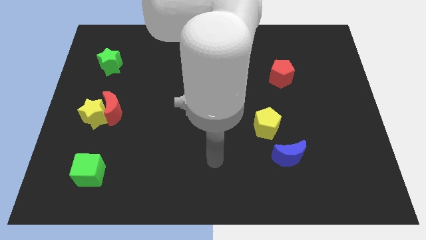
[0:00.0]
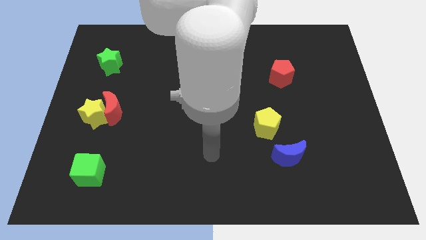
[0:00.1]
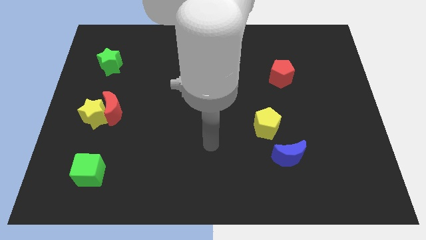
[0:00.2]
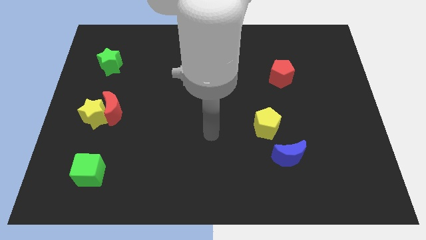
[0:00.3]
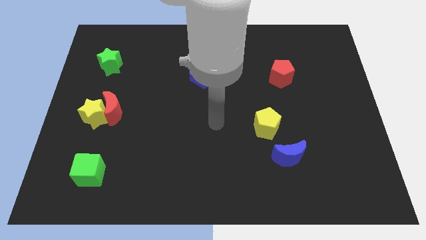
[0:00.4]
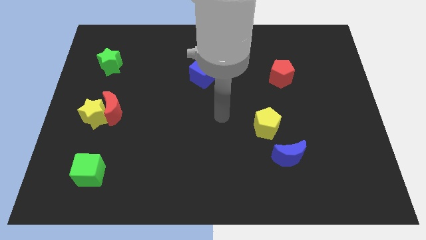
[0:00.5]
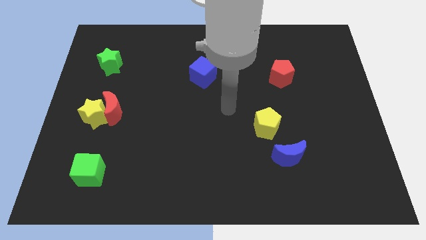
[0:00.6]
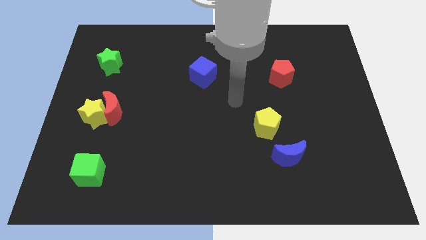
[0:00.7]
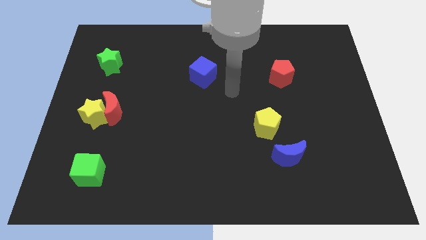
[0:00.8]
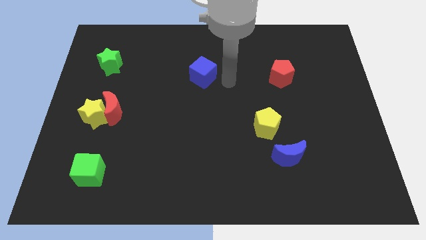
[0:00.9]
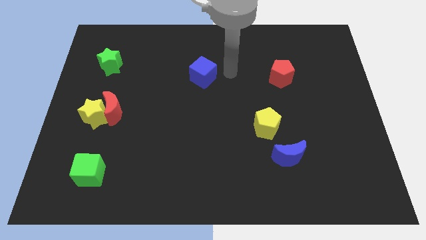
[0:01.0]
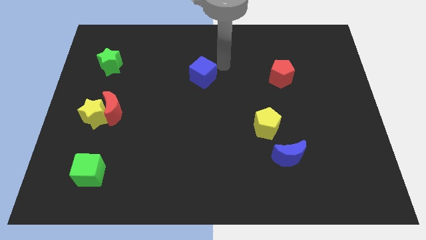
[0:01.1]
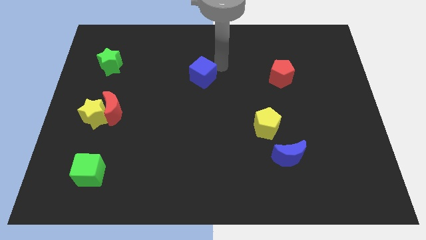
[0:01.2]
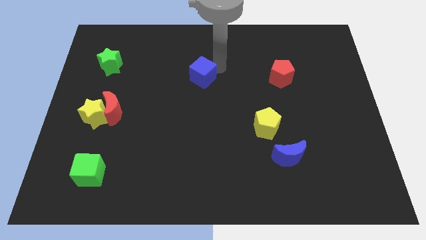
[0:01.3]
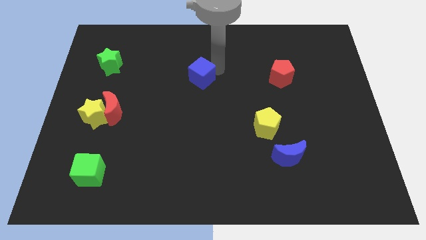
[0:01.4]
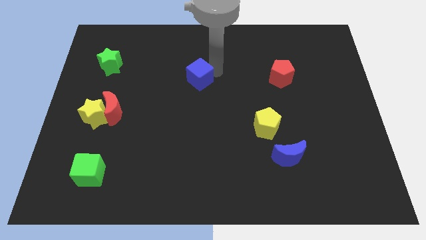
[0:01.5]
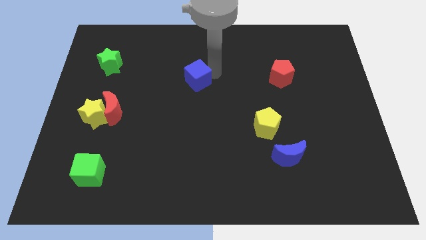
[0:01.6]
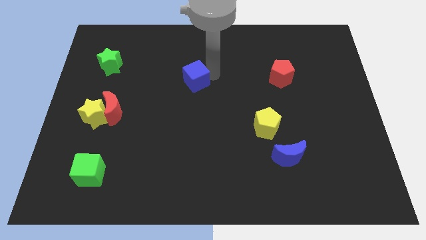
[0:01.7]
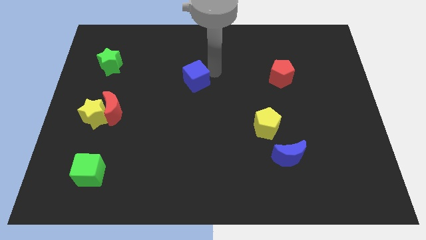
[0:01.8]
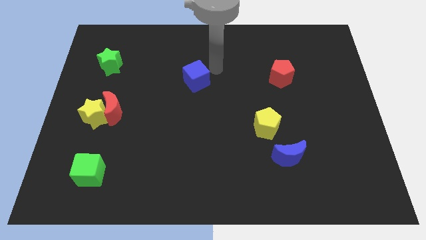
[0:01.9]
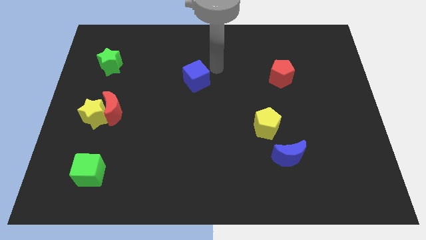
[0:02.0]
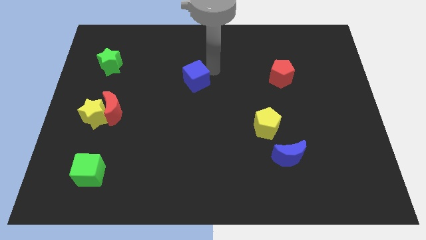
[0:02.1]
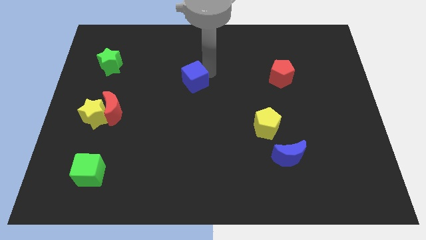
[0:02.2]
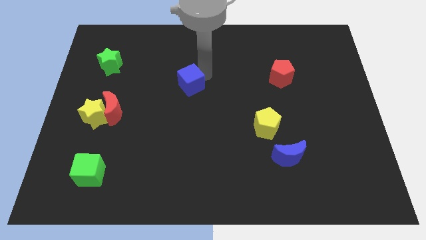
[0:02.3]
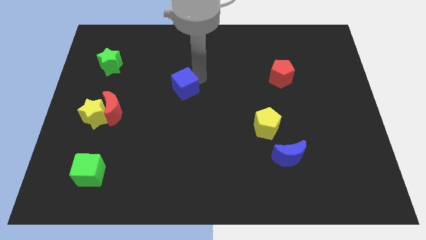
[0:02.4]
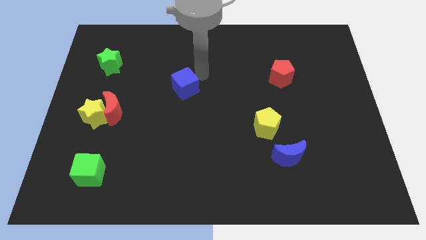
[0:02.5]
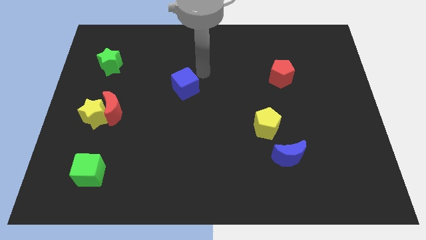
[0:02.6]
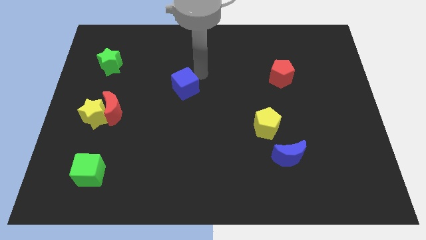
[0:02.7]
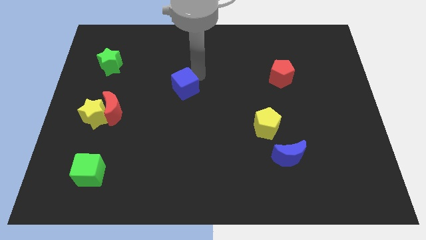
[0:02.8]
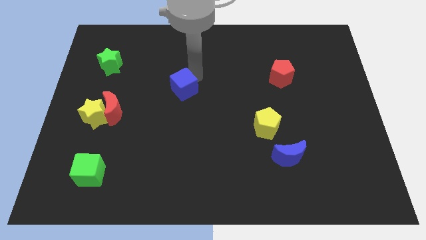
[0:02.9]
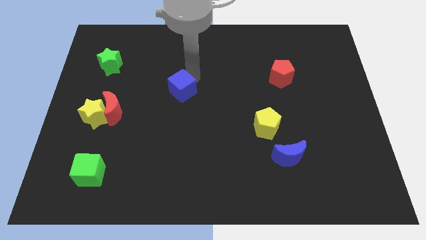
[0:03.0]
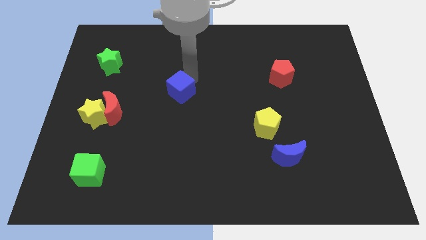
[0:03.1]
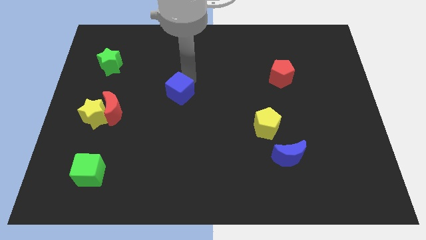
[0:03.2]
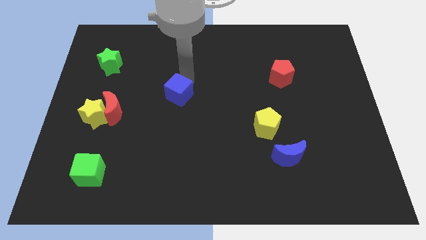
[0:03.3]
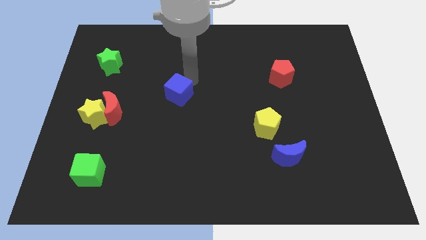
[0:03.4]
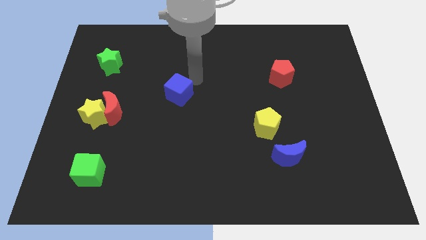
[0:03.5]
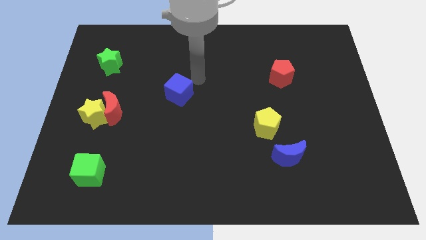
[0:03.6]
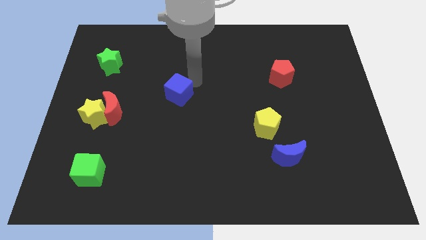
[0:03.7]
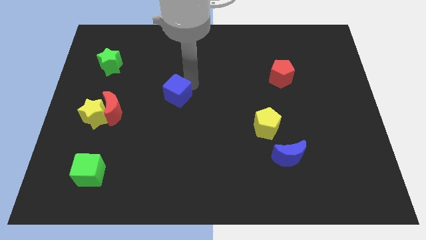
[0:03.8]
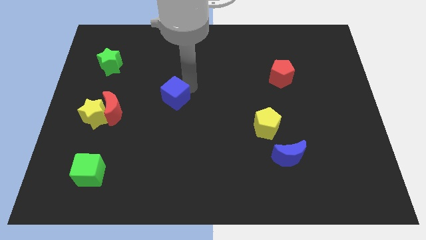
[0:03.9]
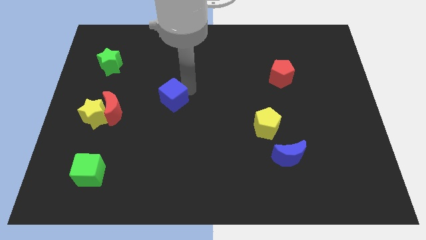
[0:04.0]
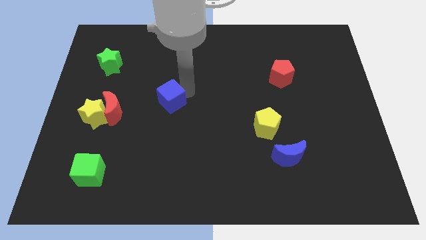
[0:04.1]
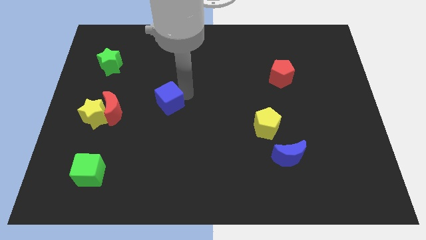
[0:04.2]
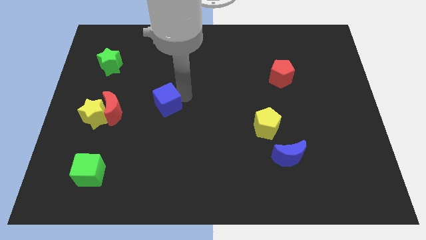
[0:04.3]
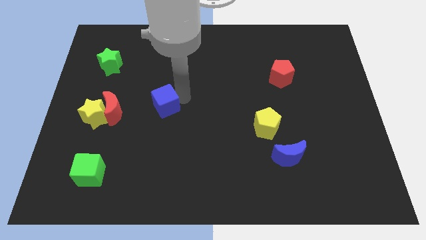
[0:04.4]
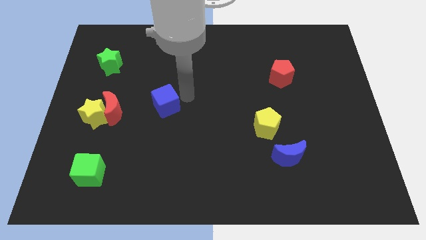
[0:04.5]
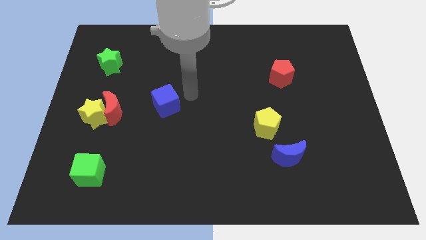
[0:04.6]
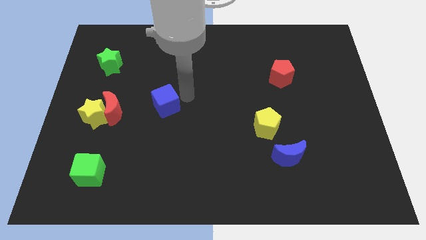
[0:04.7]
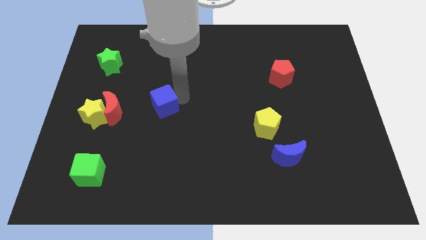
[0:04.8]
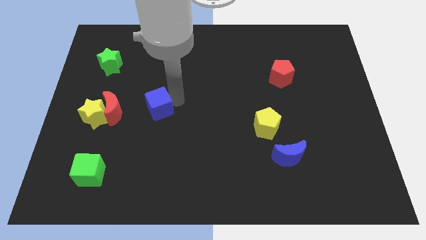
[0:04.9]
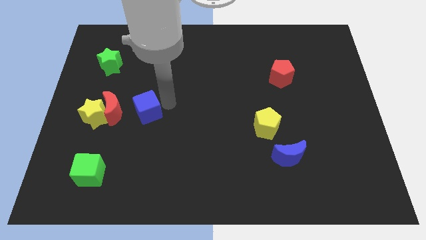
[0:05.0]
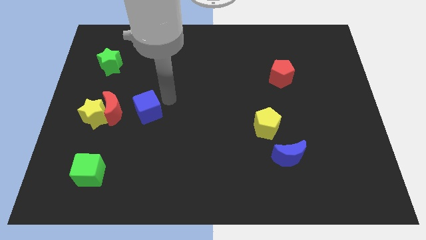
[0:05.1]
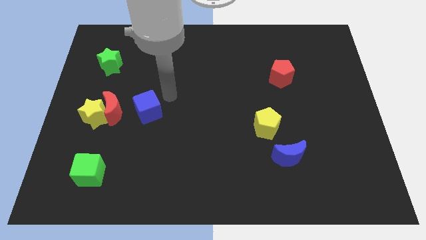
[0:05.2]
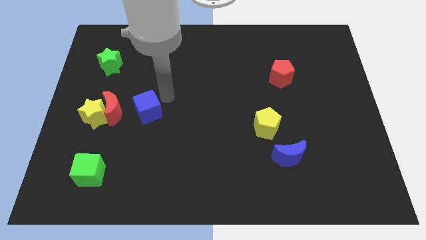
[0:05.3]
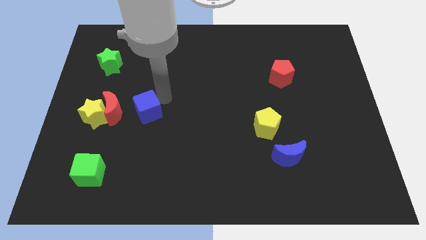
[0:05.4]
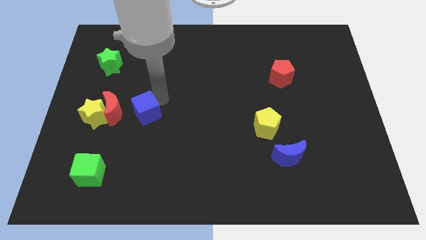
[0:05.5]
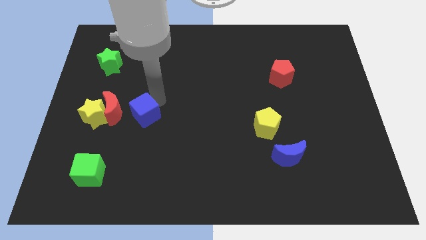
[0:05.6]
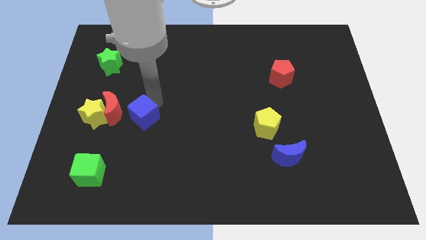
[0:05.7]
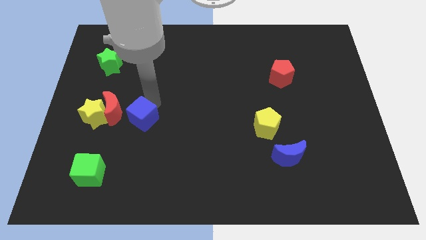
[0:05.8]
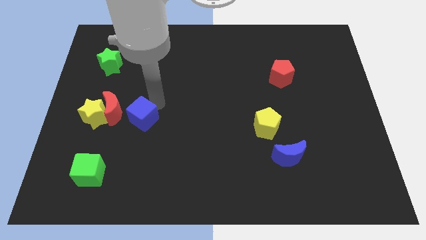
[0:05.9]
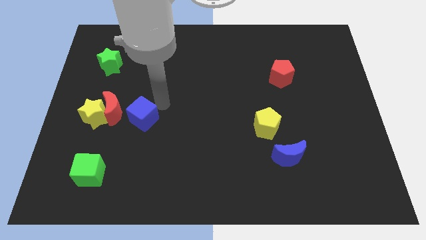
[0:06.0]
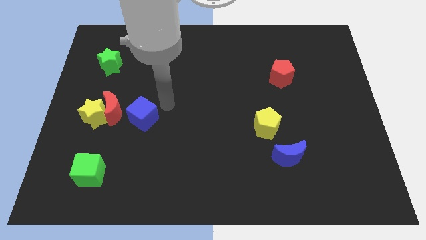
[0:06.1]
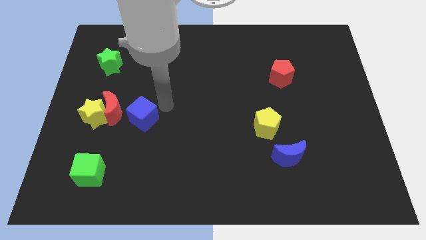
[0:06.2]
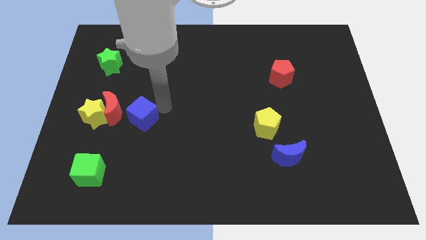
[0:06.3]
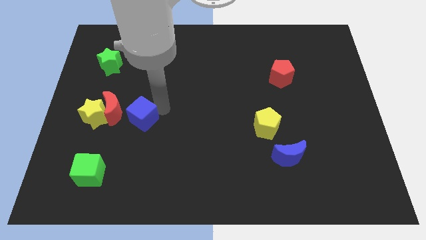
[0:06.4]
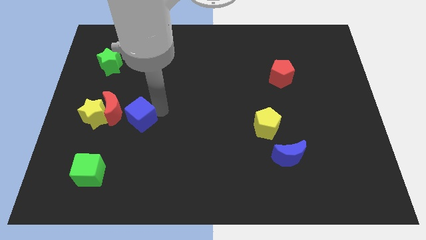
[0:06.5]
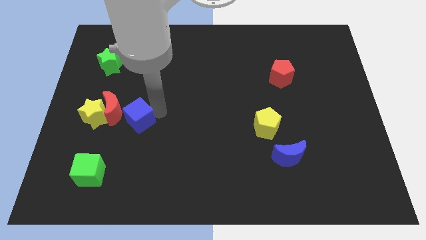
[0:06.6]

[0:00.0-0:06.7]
push the blue cube down and then to the left

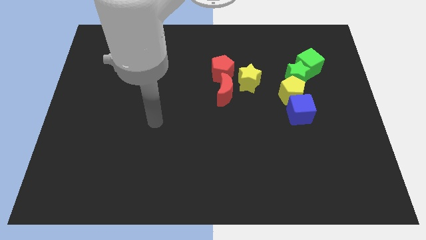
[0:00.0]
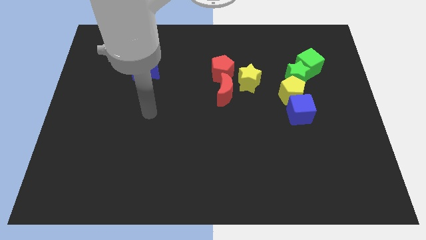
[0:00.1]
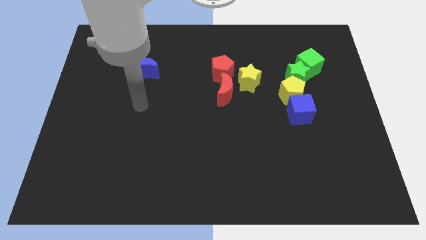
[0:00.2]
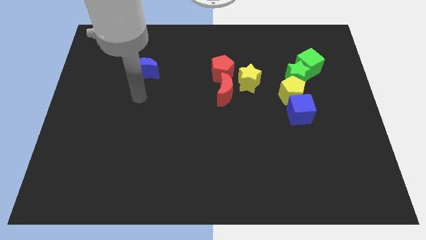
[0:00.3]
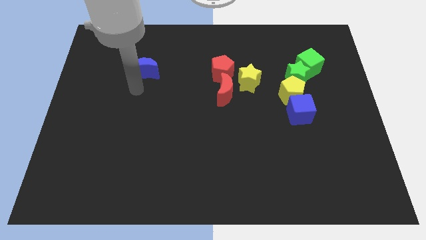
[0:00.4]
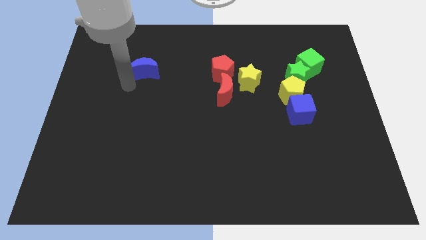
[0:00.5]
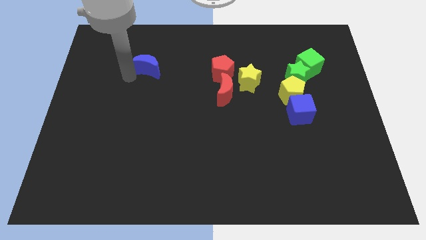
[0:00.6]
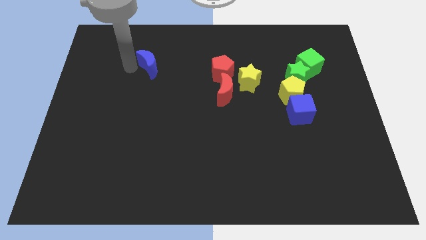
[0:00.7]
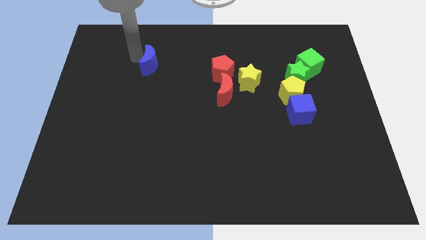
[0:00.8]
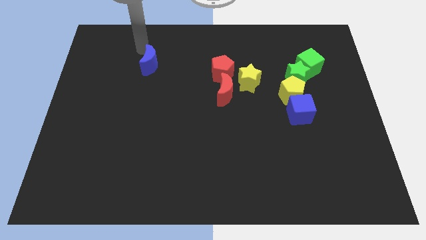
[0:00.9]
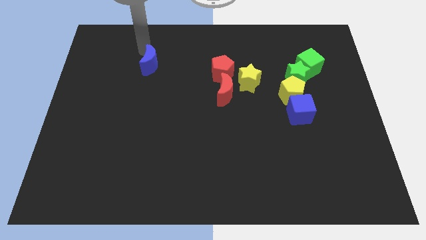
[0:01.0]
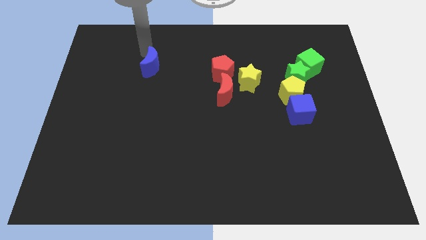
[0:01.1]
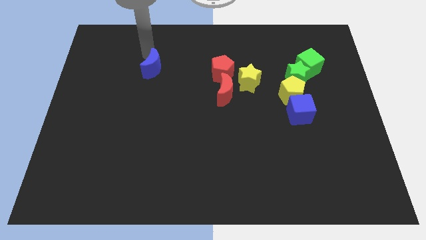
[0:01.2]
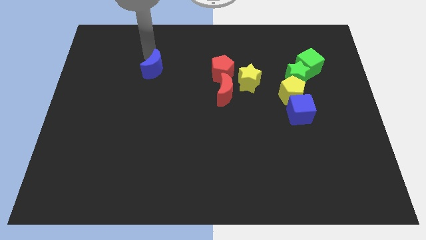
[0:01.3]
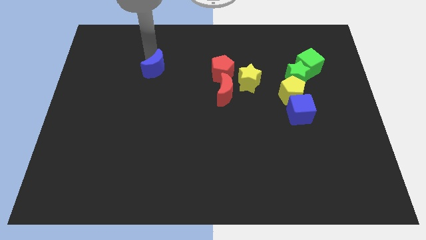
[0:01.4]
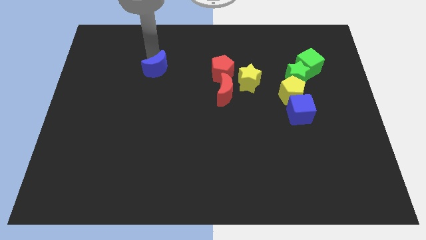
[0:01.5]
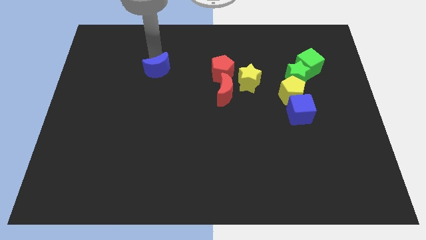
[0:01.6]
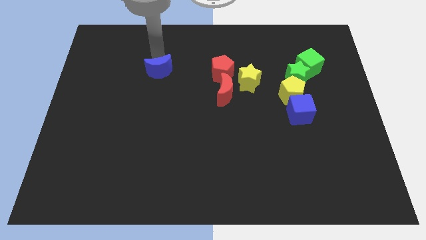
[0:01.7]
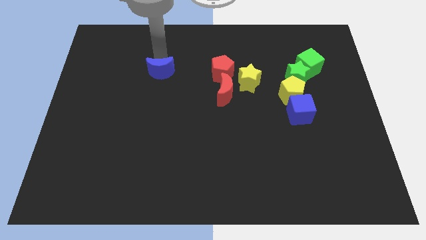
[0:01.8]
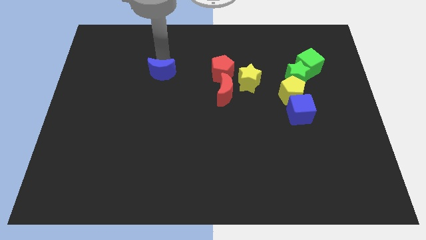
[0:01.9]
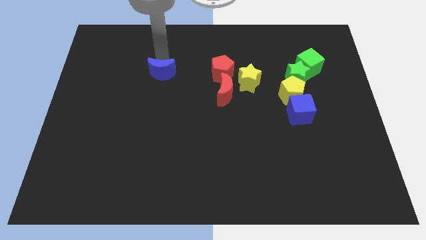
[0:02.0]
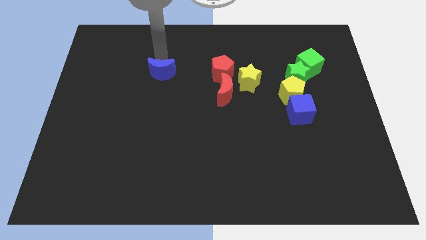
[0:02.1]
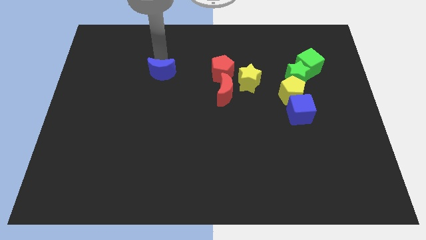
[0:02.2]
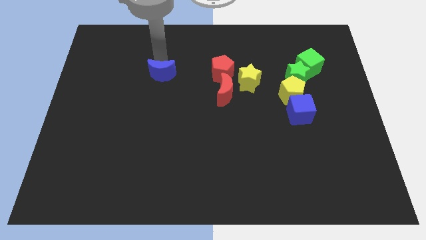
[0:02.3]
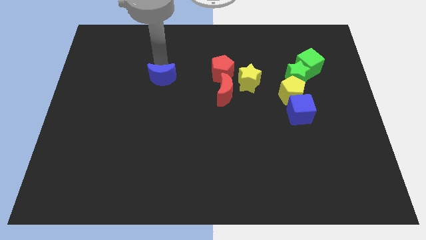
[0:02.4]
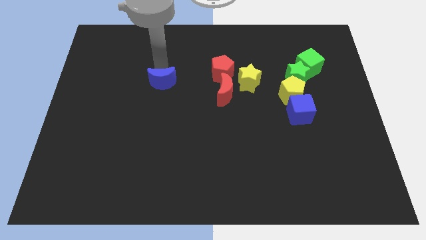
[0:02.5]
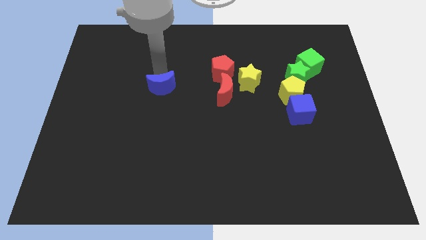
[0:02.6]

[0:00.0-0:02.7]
move the blue moon down and right a little bit
